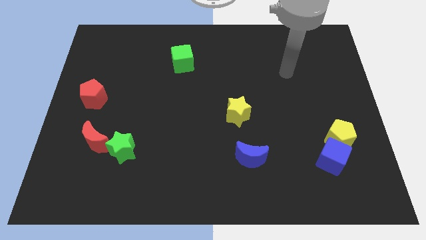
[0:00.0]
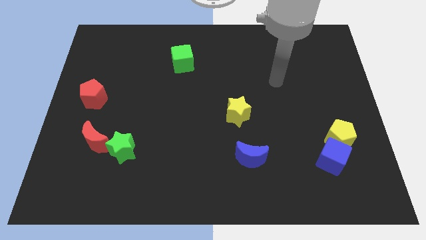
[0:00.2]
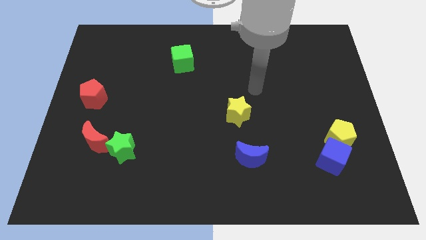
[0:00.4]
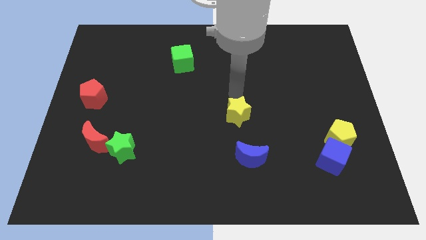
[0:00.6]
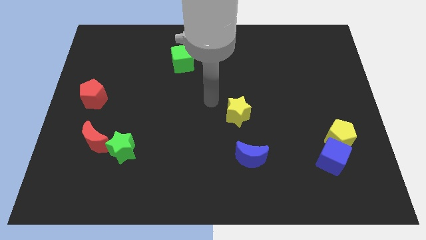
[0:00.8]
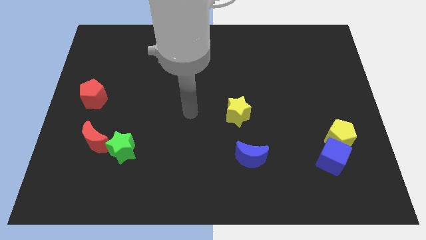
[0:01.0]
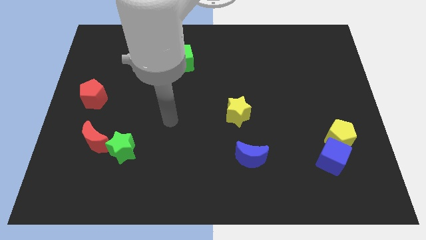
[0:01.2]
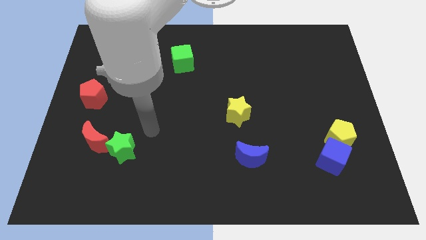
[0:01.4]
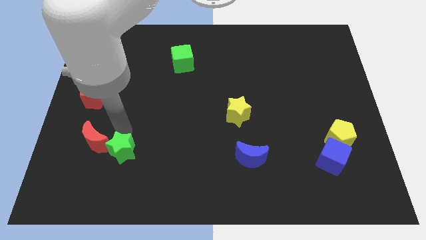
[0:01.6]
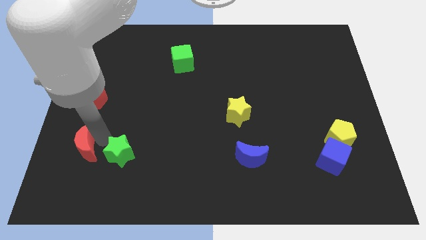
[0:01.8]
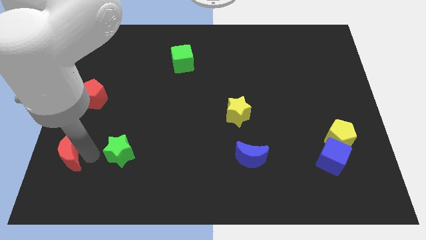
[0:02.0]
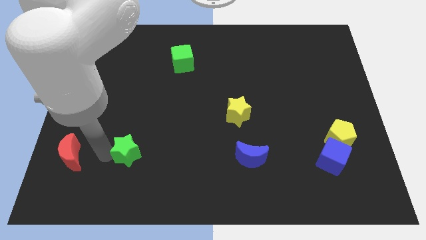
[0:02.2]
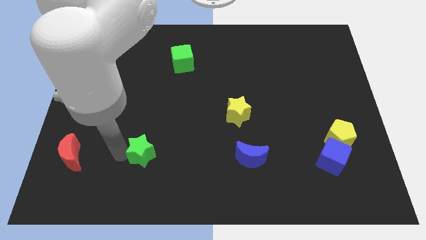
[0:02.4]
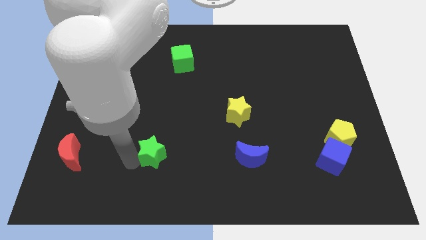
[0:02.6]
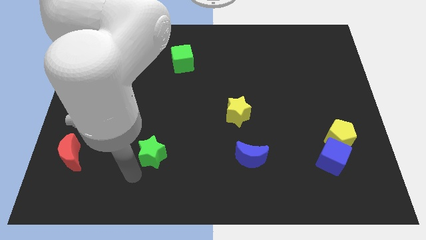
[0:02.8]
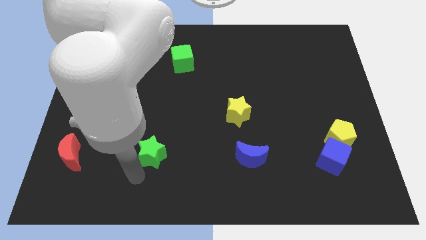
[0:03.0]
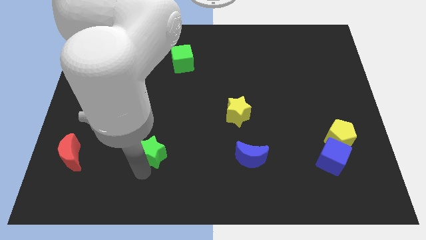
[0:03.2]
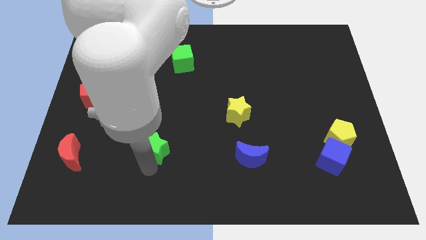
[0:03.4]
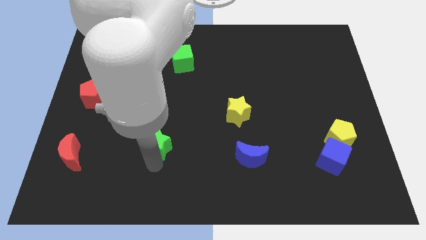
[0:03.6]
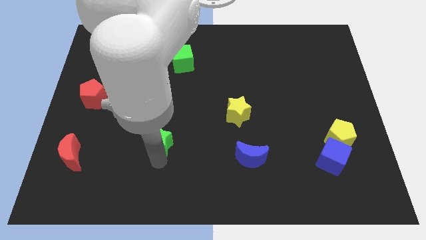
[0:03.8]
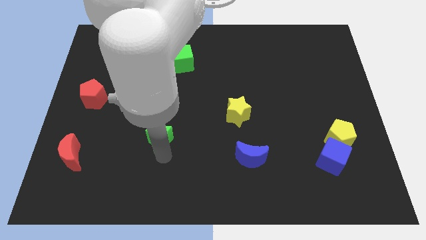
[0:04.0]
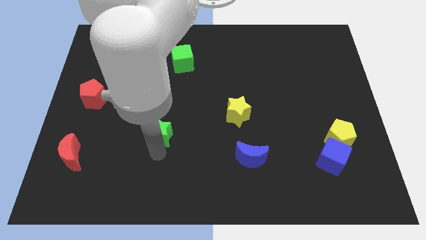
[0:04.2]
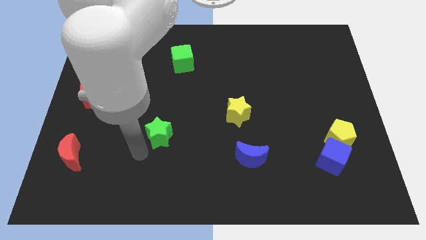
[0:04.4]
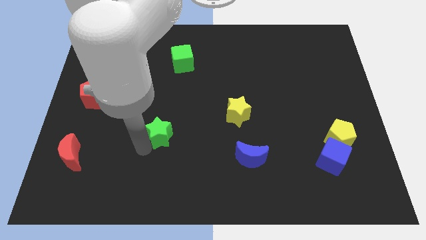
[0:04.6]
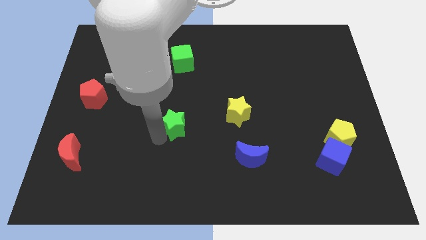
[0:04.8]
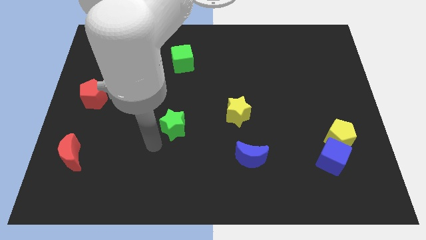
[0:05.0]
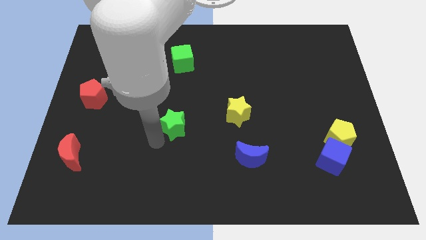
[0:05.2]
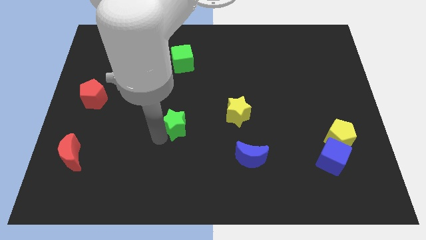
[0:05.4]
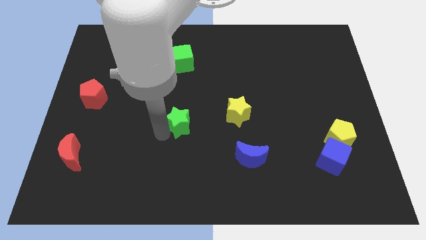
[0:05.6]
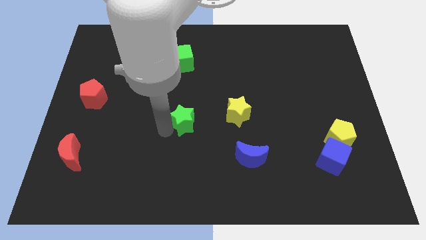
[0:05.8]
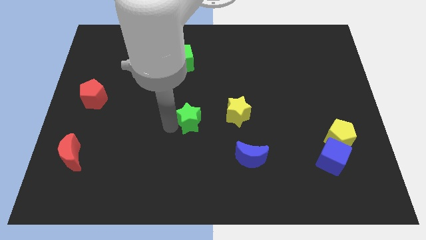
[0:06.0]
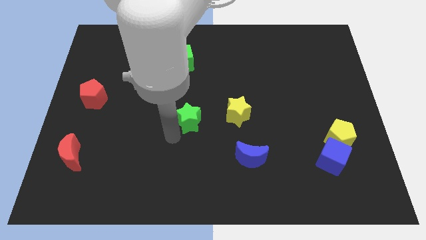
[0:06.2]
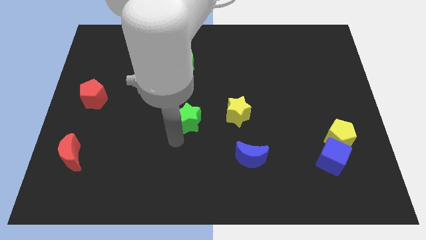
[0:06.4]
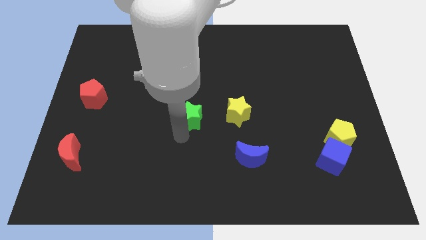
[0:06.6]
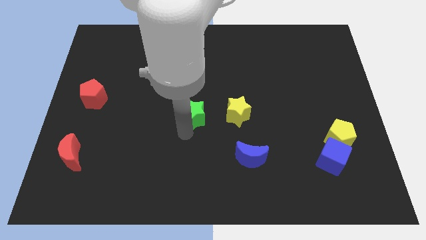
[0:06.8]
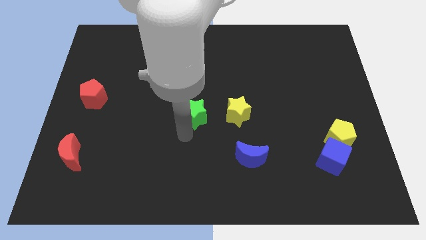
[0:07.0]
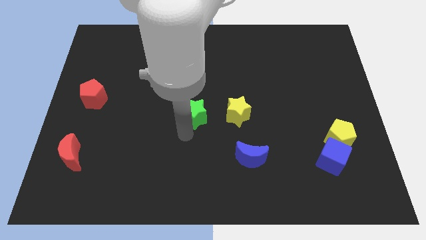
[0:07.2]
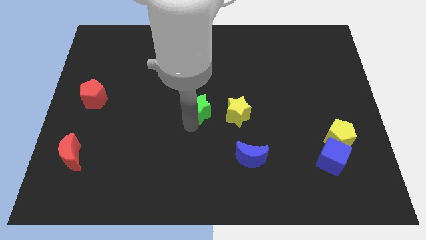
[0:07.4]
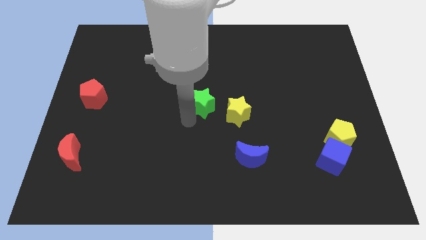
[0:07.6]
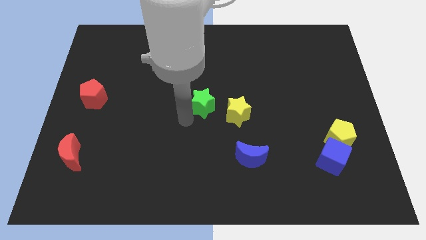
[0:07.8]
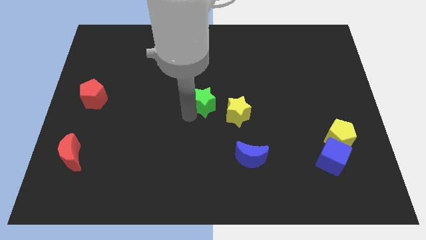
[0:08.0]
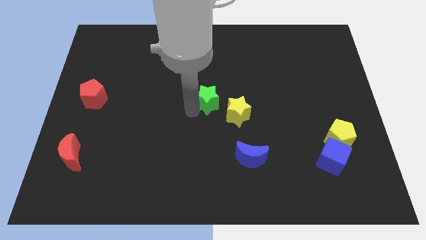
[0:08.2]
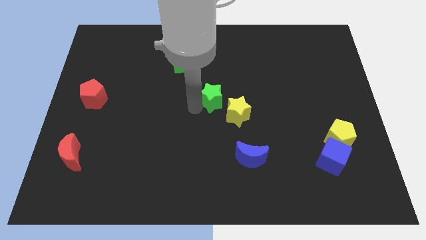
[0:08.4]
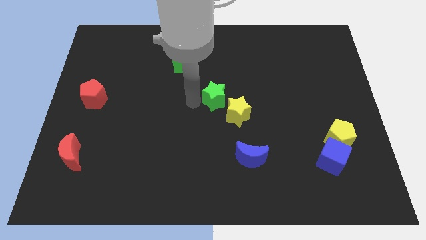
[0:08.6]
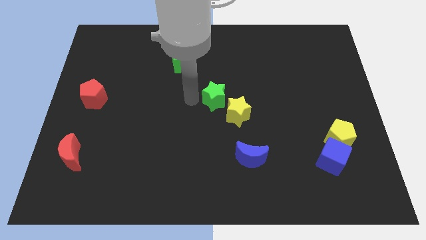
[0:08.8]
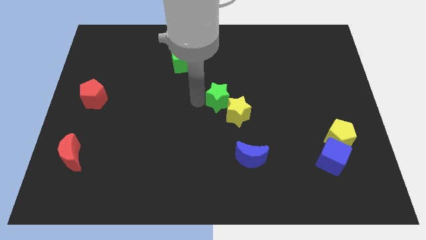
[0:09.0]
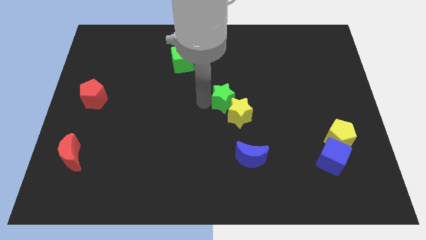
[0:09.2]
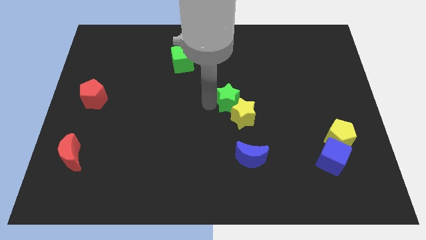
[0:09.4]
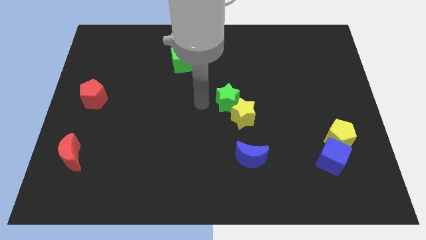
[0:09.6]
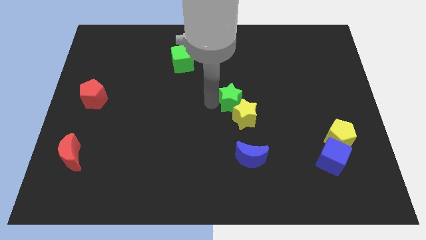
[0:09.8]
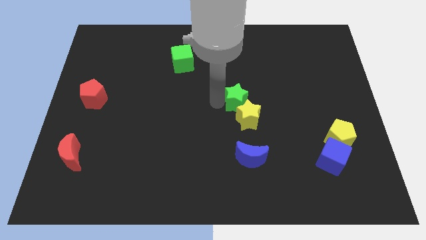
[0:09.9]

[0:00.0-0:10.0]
move the green star above the blue moon

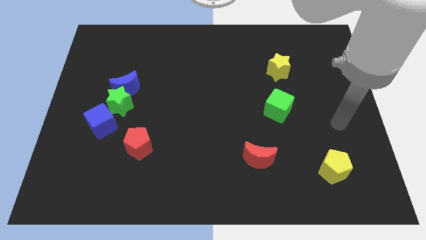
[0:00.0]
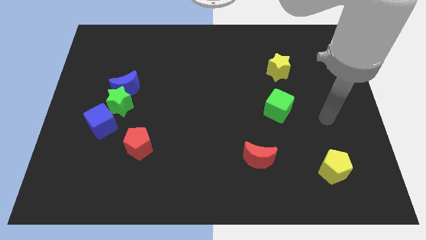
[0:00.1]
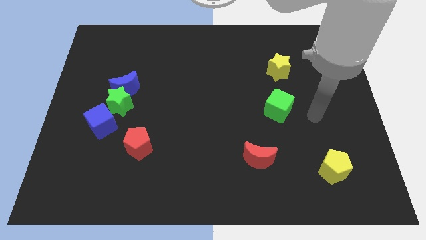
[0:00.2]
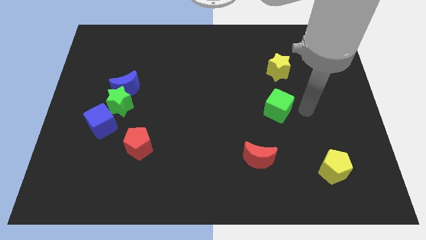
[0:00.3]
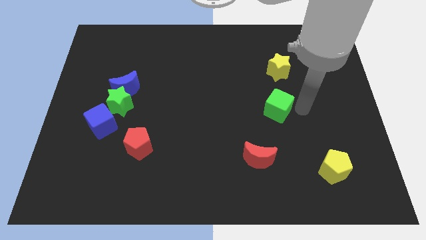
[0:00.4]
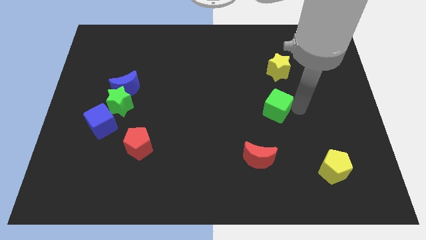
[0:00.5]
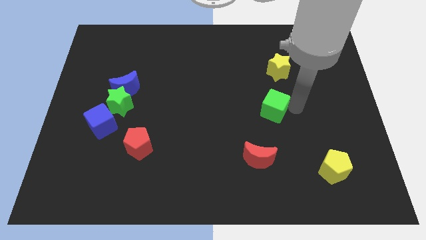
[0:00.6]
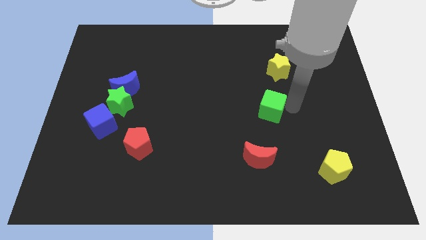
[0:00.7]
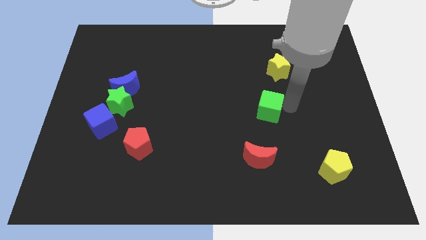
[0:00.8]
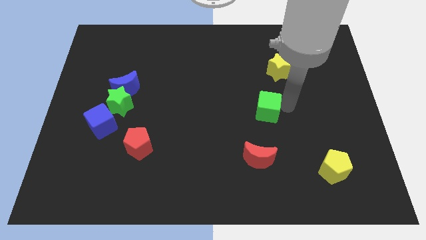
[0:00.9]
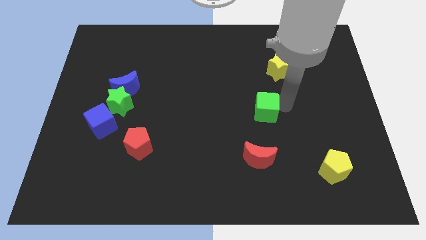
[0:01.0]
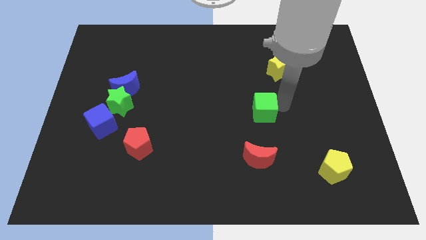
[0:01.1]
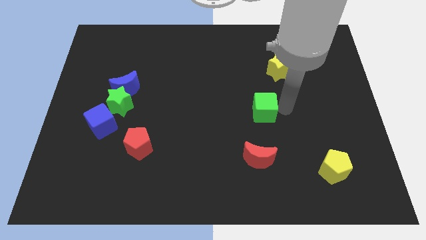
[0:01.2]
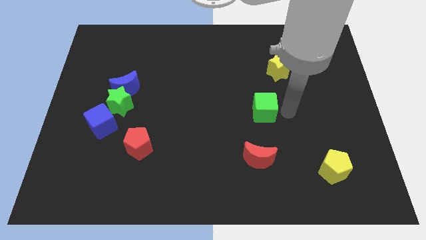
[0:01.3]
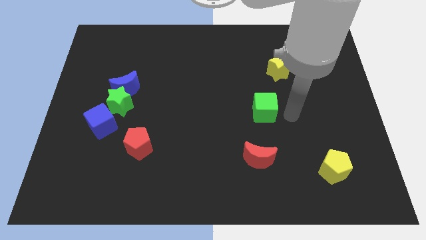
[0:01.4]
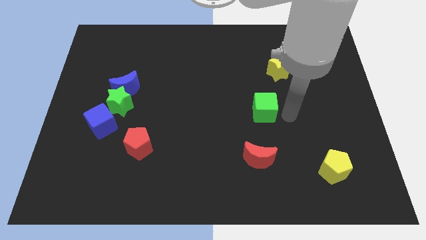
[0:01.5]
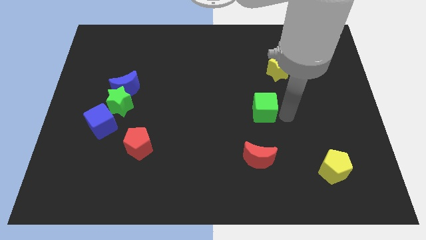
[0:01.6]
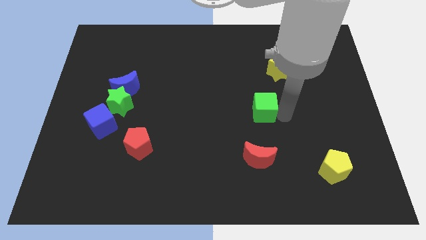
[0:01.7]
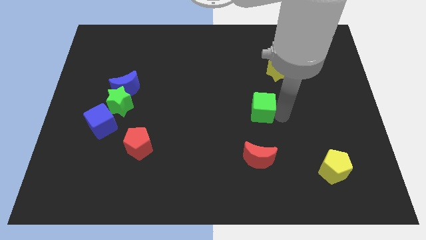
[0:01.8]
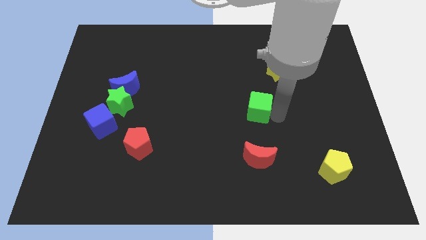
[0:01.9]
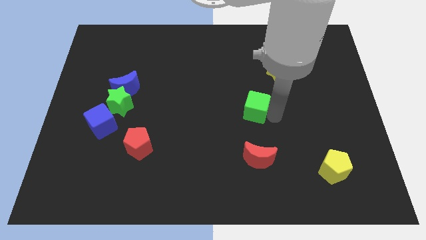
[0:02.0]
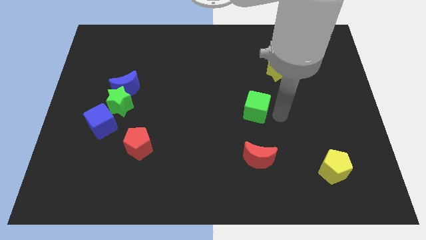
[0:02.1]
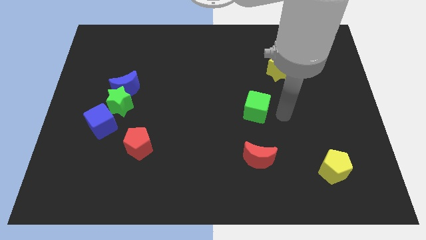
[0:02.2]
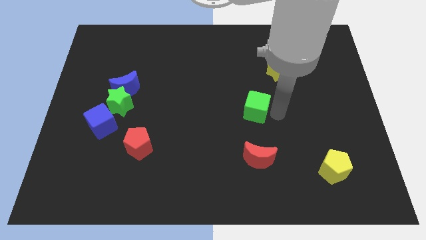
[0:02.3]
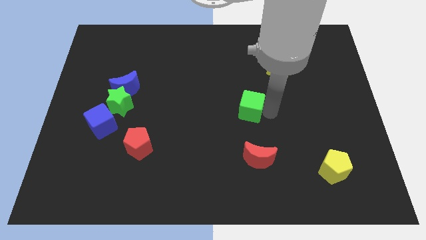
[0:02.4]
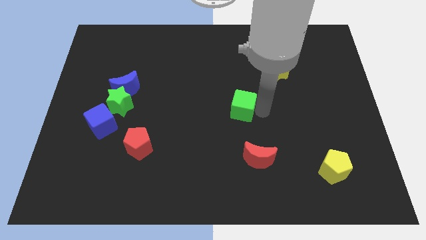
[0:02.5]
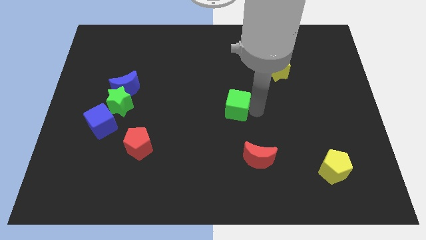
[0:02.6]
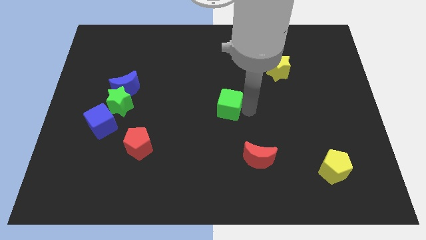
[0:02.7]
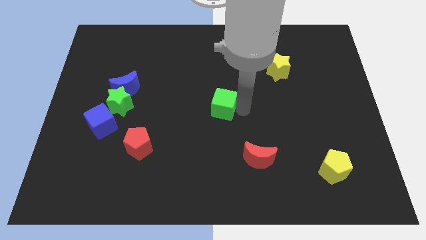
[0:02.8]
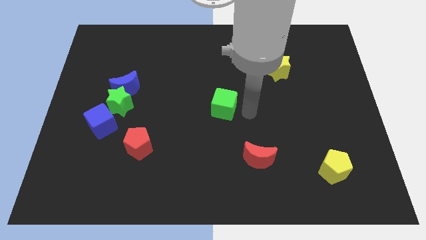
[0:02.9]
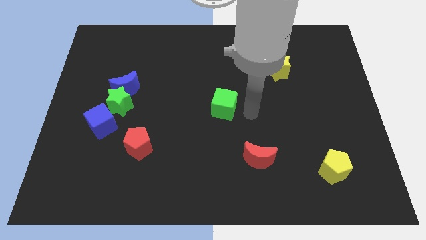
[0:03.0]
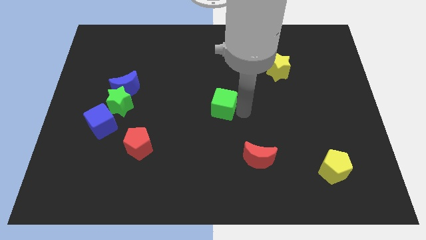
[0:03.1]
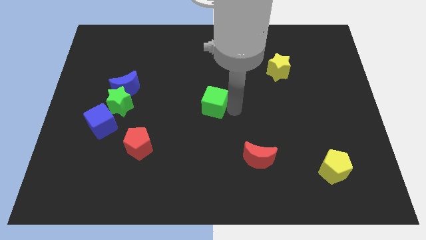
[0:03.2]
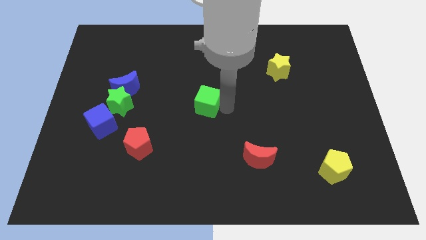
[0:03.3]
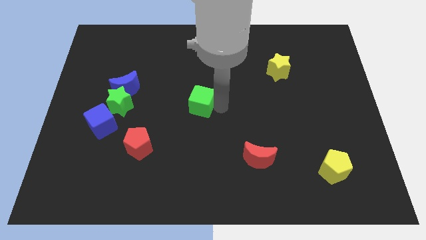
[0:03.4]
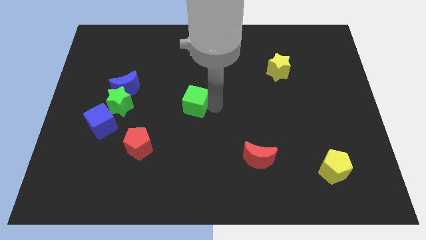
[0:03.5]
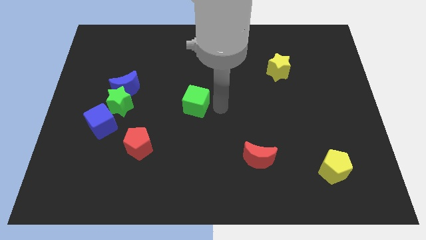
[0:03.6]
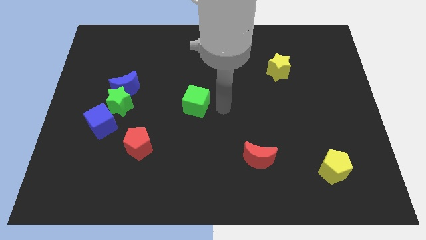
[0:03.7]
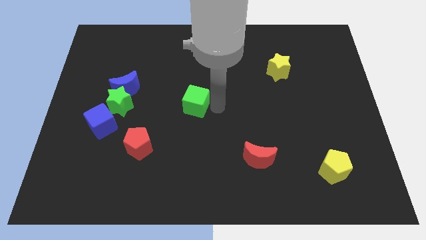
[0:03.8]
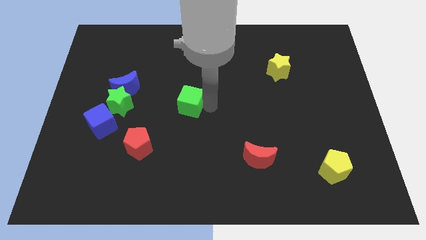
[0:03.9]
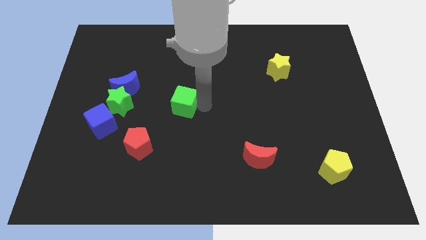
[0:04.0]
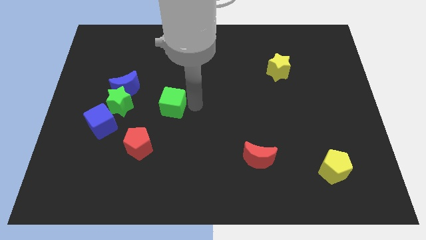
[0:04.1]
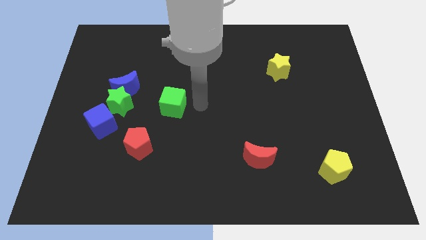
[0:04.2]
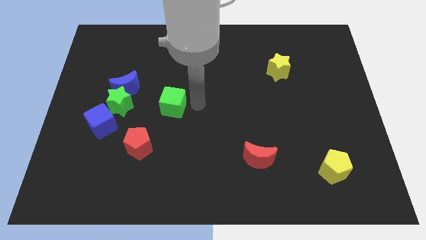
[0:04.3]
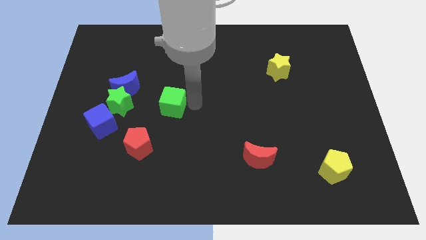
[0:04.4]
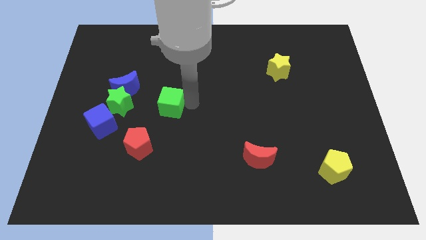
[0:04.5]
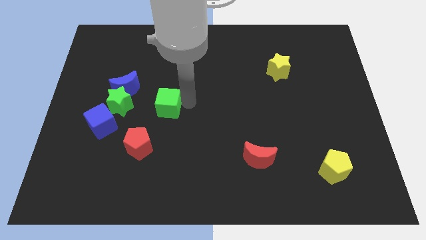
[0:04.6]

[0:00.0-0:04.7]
move the green cube to the bottom right side of the blue moon
